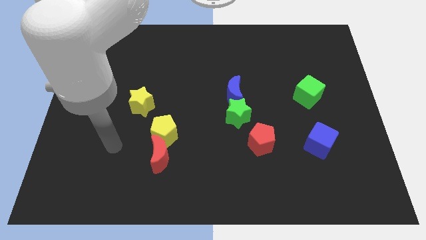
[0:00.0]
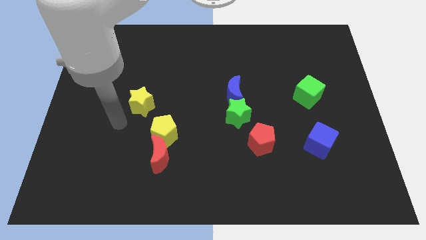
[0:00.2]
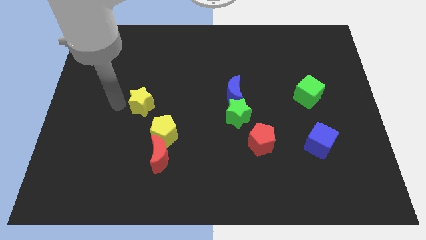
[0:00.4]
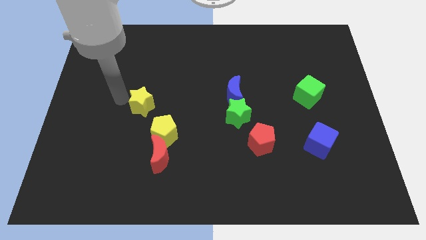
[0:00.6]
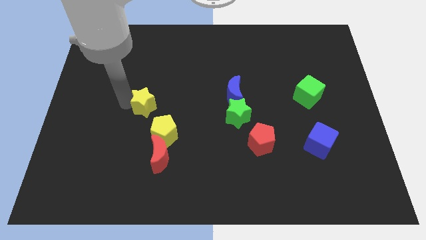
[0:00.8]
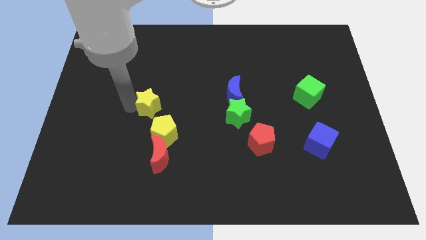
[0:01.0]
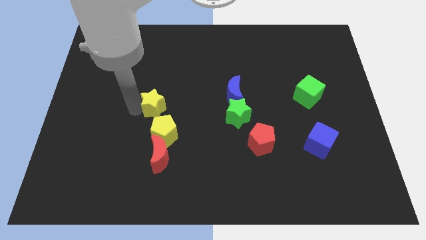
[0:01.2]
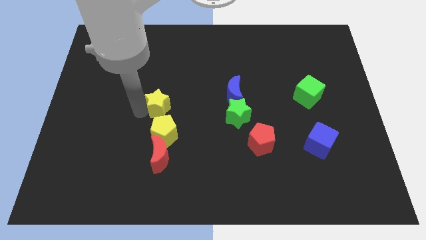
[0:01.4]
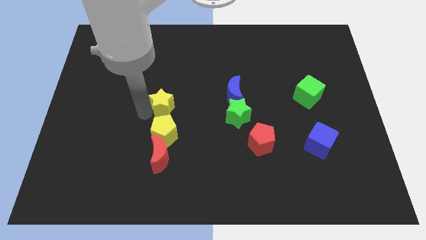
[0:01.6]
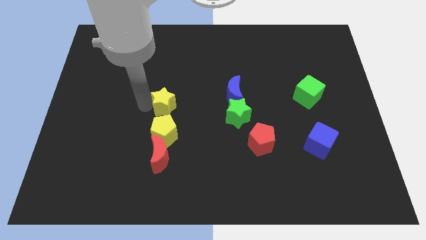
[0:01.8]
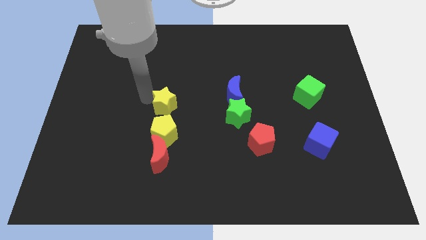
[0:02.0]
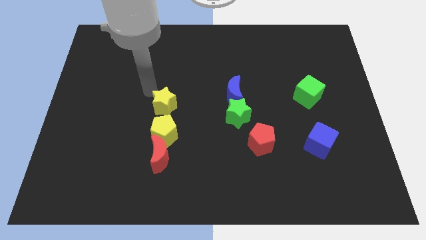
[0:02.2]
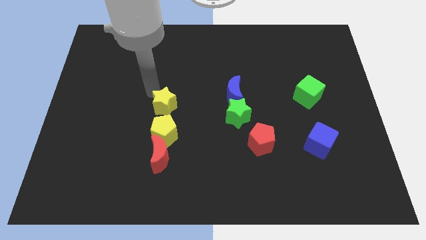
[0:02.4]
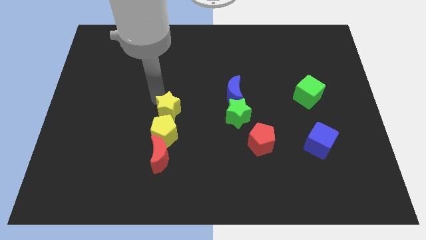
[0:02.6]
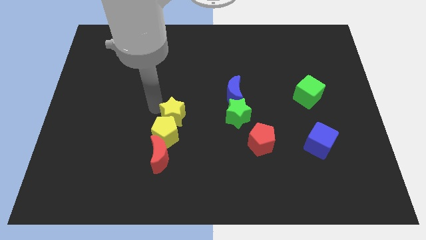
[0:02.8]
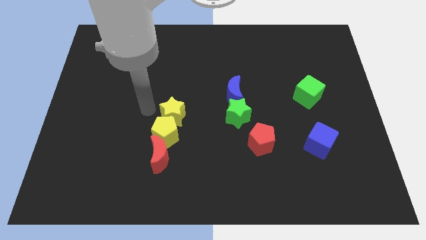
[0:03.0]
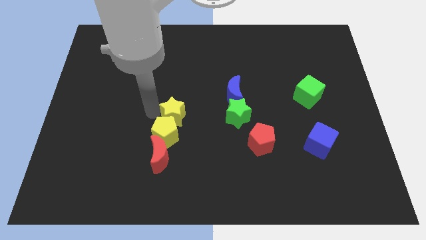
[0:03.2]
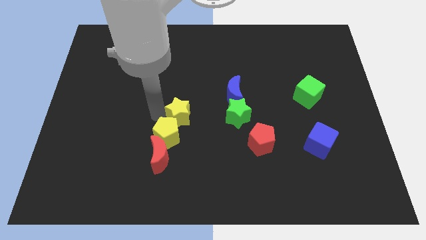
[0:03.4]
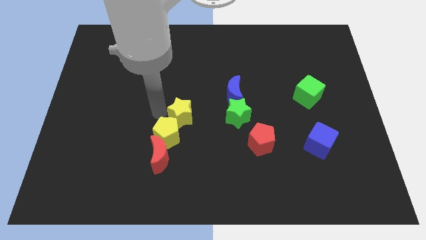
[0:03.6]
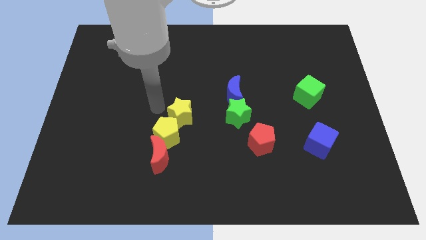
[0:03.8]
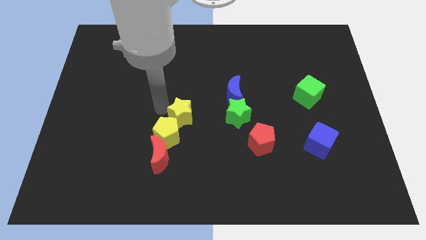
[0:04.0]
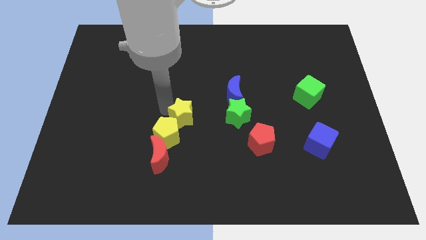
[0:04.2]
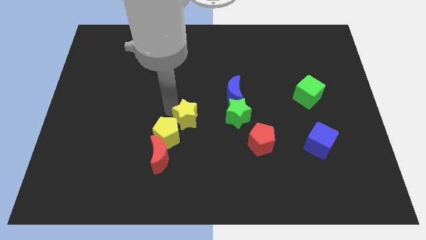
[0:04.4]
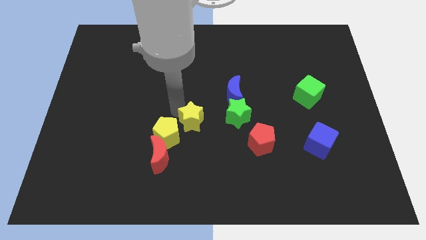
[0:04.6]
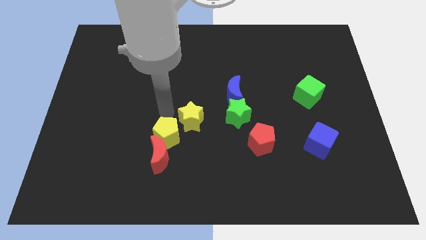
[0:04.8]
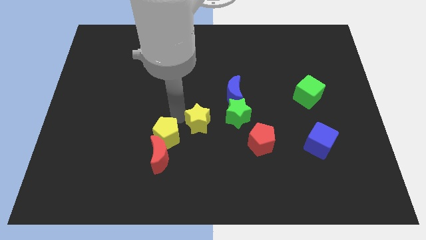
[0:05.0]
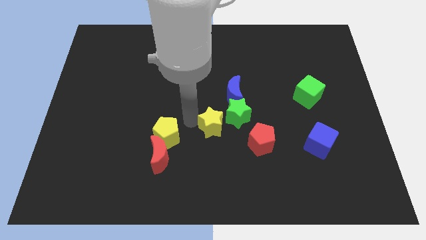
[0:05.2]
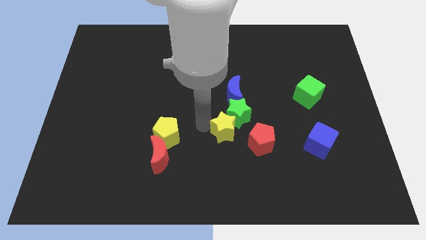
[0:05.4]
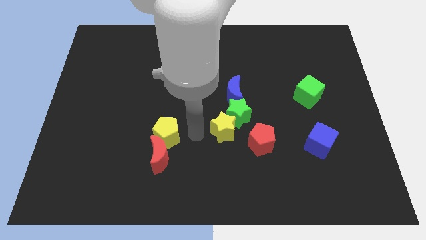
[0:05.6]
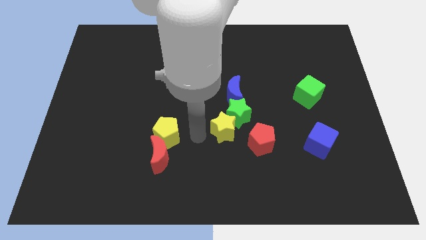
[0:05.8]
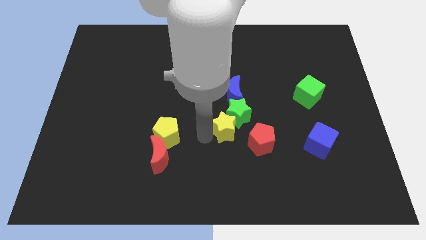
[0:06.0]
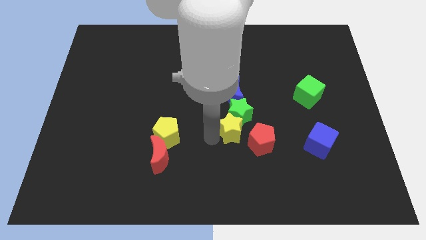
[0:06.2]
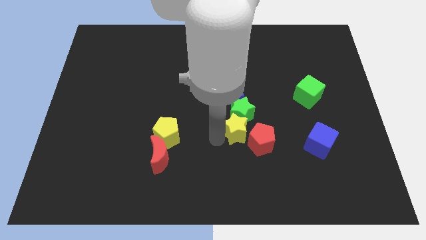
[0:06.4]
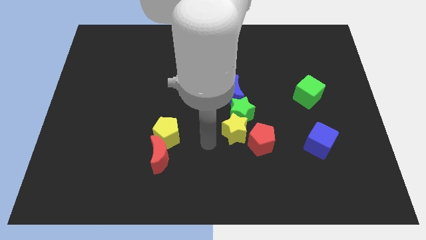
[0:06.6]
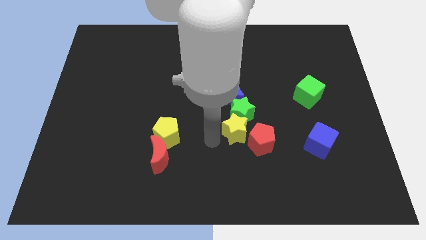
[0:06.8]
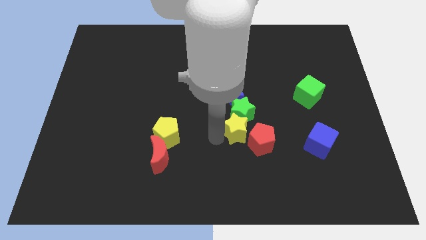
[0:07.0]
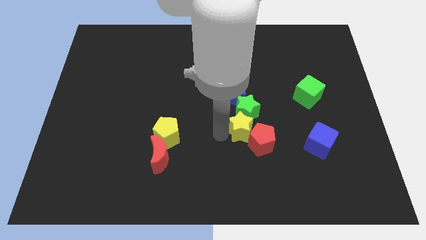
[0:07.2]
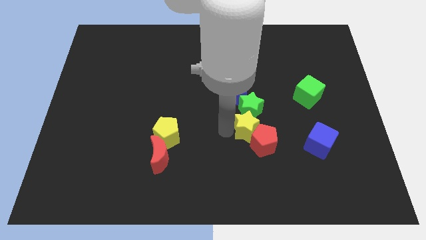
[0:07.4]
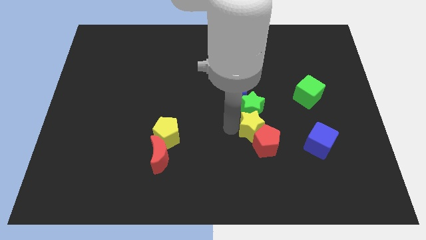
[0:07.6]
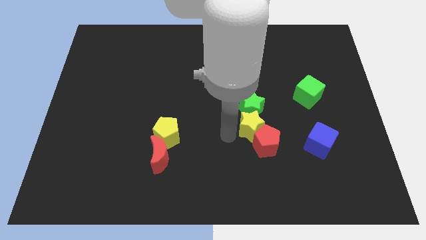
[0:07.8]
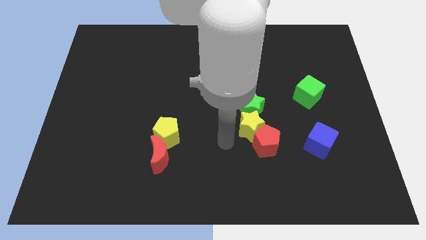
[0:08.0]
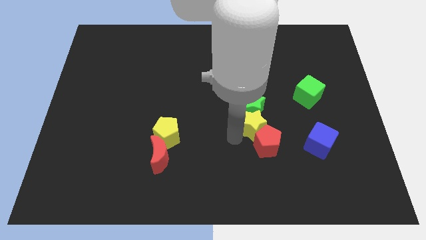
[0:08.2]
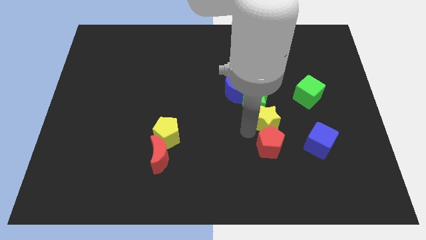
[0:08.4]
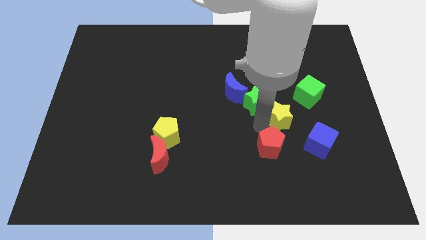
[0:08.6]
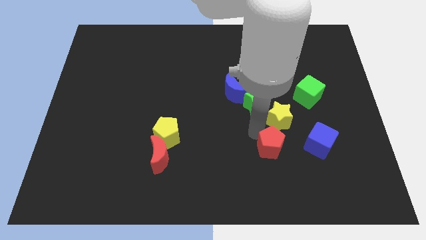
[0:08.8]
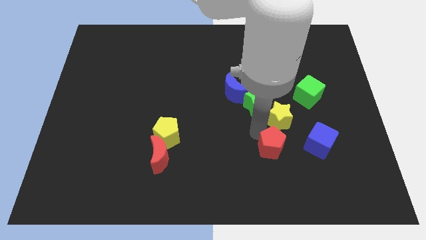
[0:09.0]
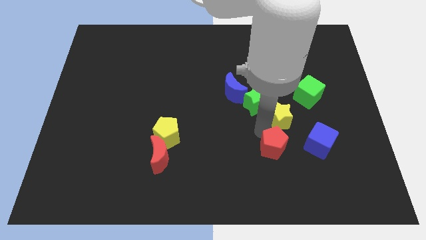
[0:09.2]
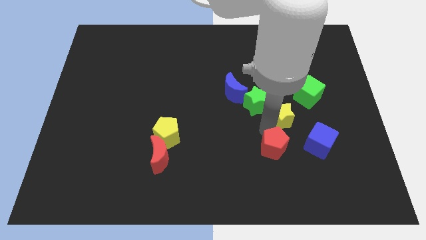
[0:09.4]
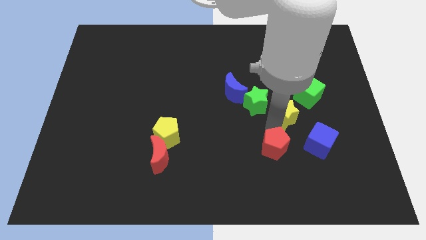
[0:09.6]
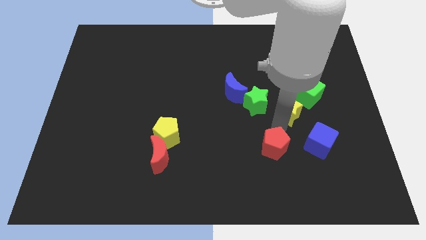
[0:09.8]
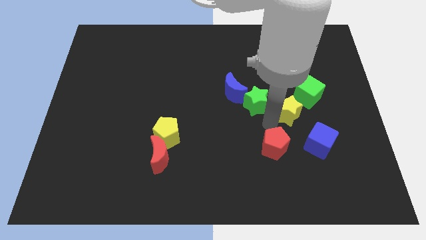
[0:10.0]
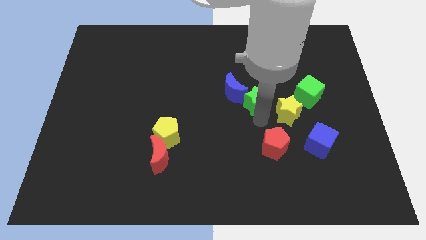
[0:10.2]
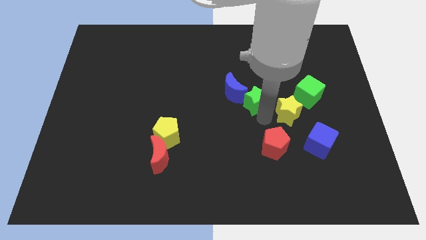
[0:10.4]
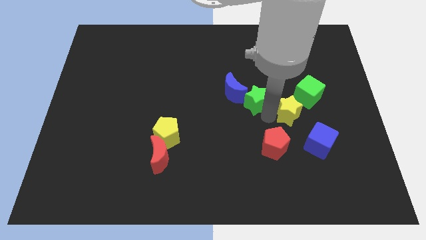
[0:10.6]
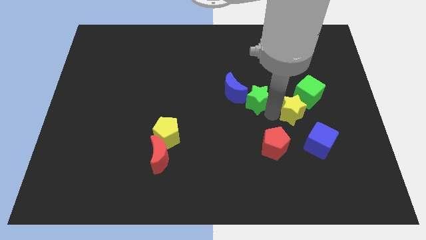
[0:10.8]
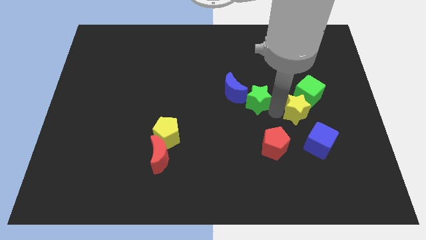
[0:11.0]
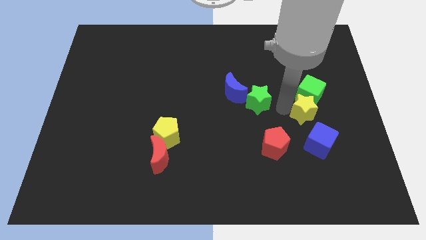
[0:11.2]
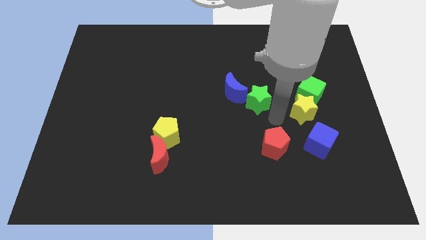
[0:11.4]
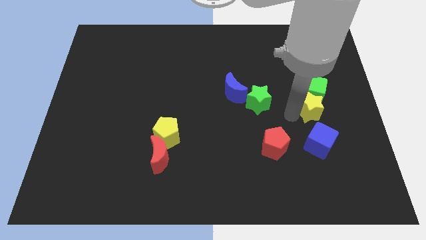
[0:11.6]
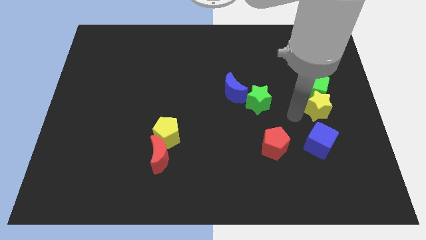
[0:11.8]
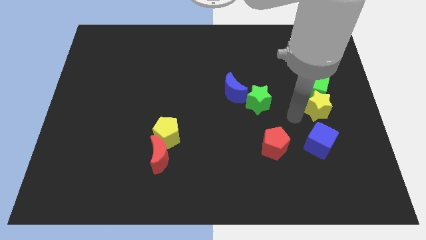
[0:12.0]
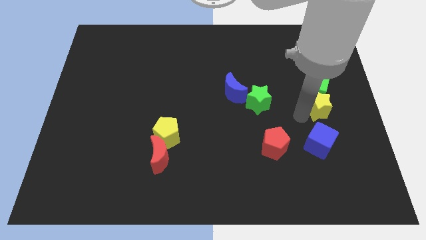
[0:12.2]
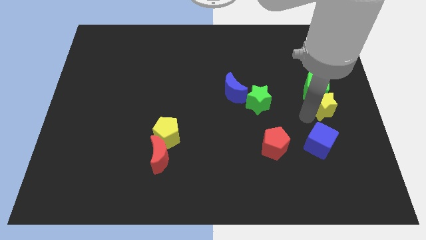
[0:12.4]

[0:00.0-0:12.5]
push the yellow star to the right side of the board
